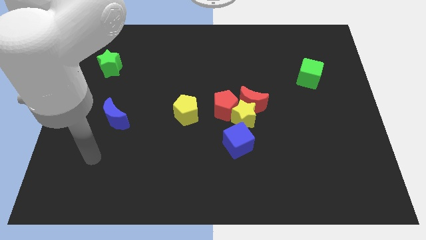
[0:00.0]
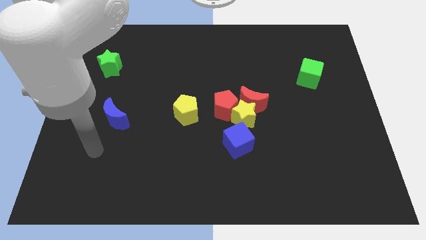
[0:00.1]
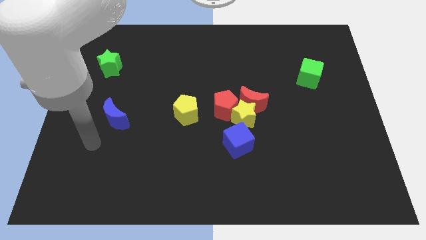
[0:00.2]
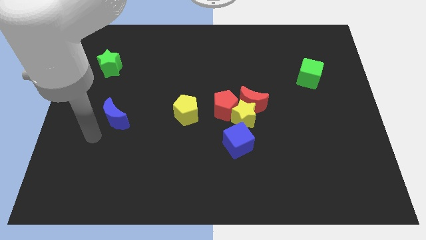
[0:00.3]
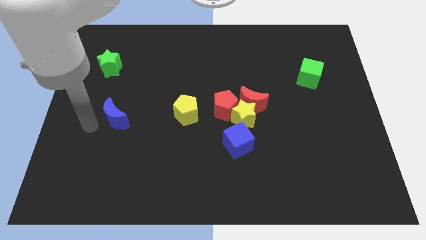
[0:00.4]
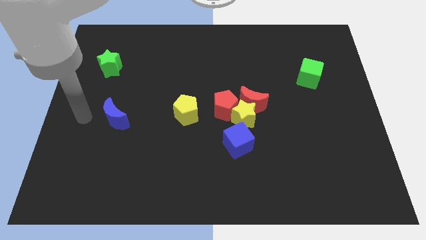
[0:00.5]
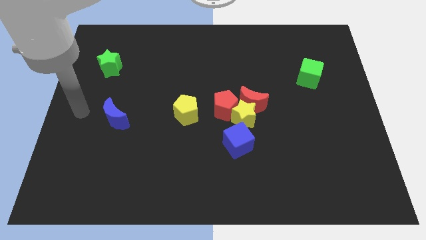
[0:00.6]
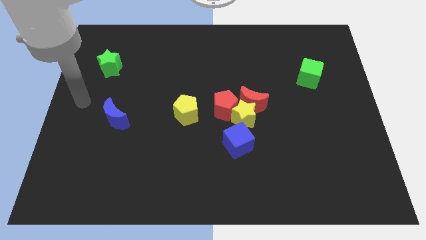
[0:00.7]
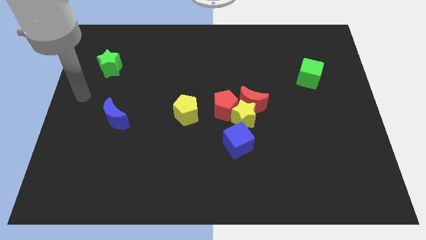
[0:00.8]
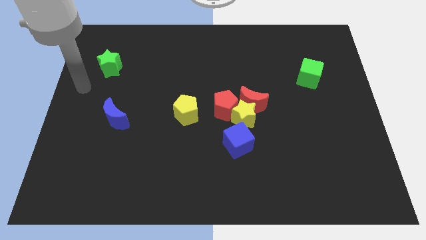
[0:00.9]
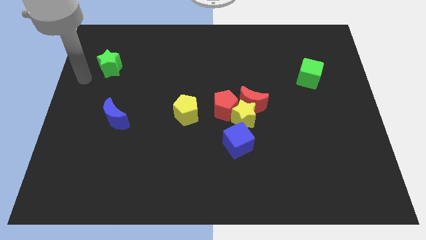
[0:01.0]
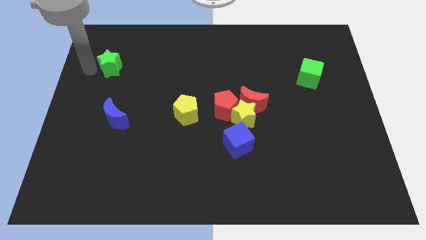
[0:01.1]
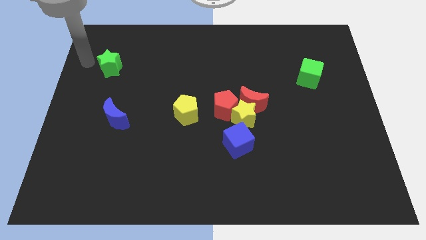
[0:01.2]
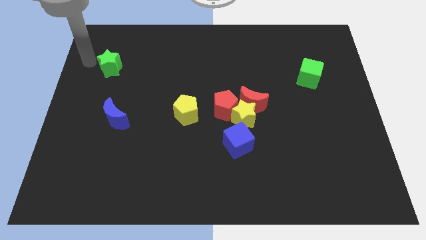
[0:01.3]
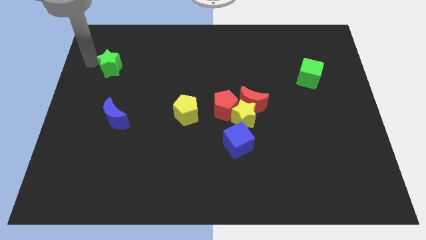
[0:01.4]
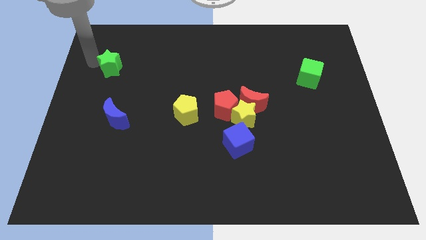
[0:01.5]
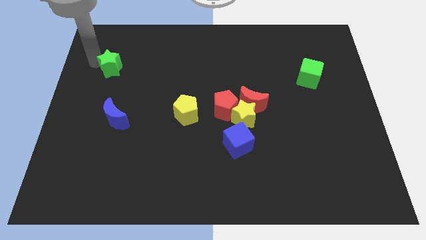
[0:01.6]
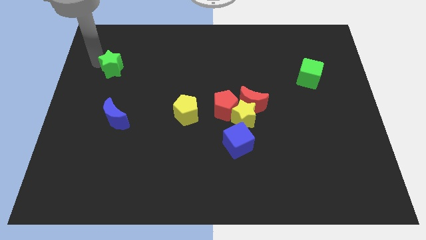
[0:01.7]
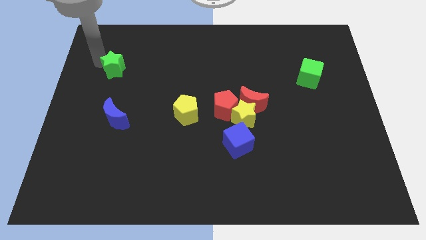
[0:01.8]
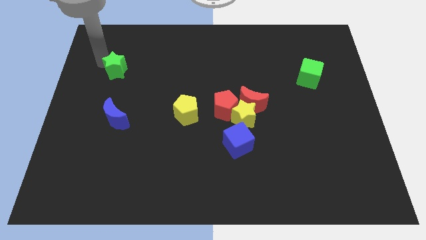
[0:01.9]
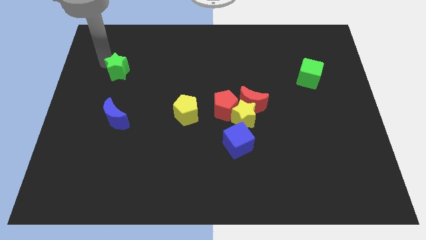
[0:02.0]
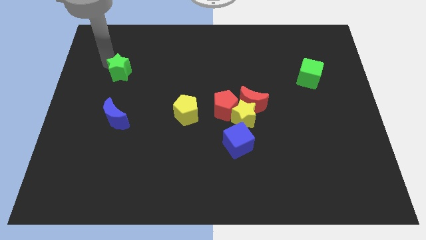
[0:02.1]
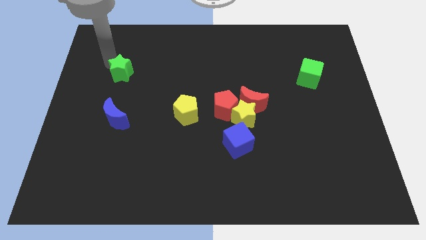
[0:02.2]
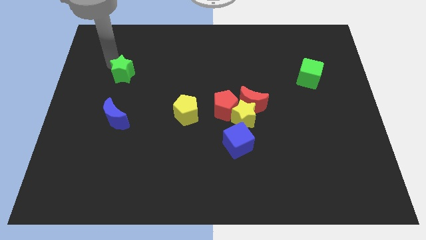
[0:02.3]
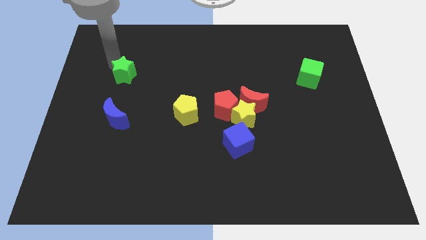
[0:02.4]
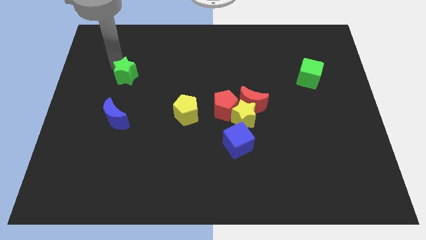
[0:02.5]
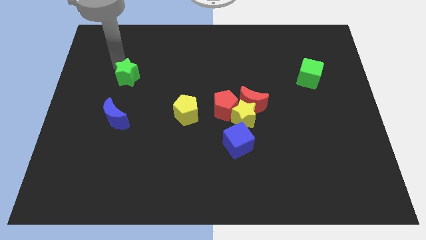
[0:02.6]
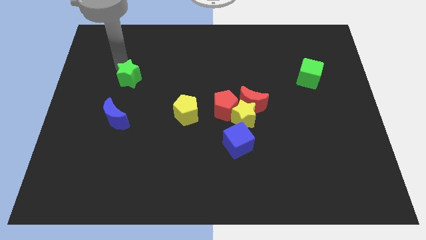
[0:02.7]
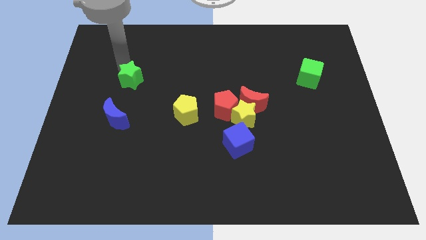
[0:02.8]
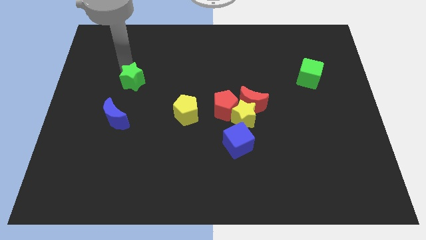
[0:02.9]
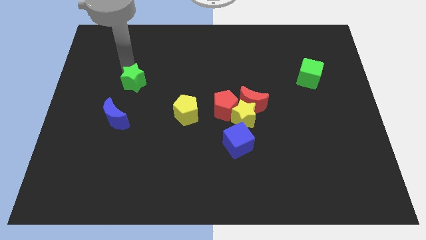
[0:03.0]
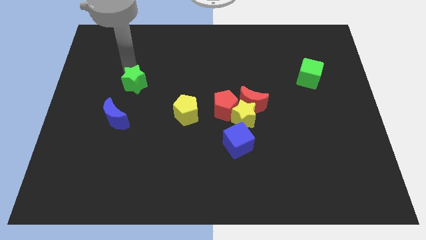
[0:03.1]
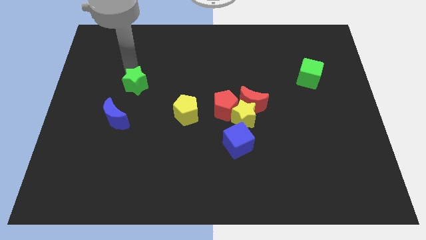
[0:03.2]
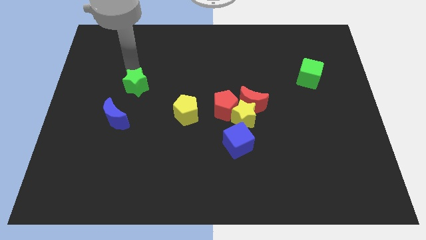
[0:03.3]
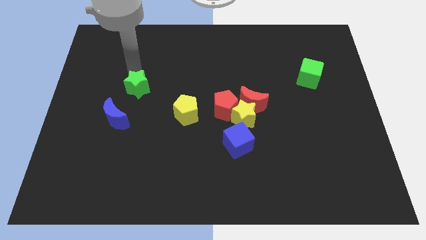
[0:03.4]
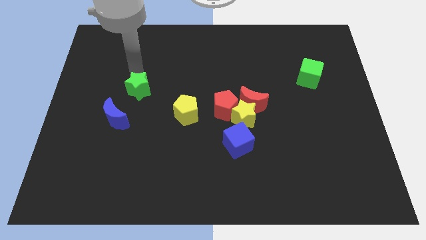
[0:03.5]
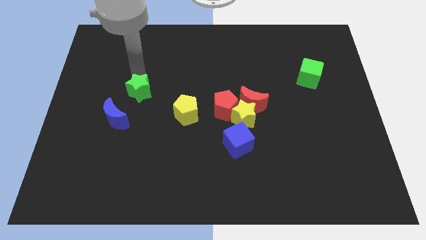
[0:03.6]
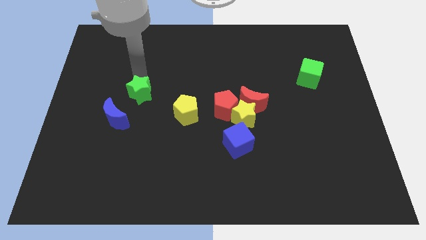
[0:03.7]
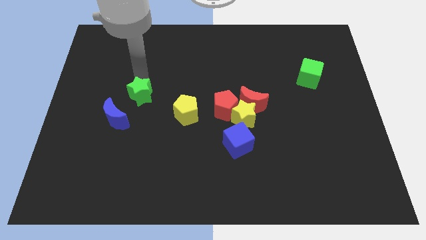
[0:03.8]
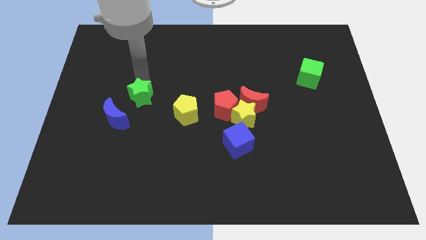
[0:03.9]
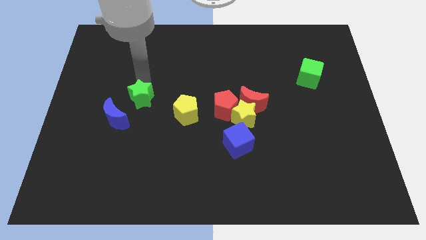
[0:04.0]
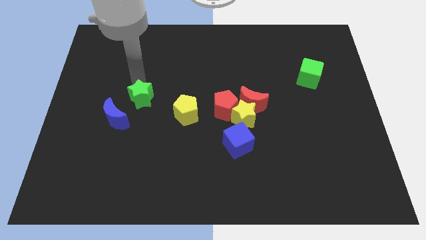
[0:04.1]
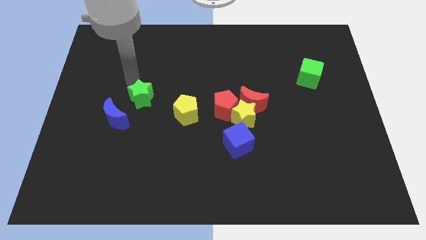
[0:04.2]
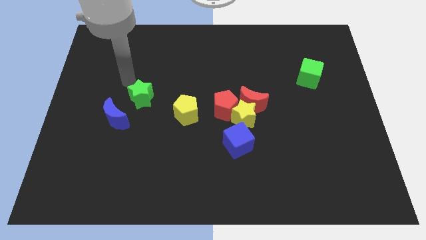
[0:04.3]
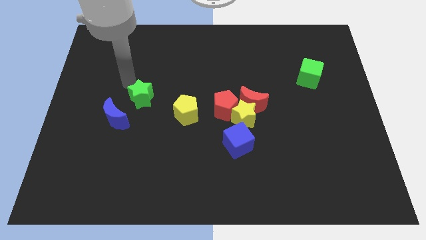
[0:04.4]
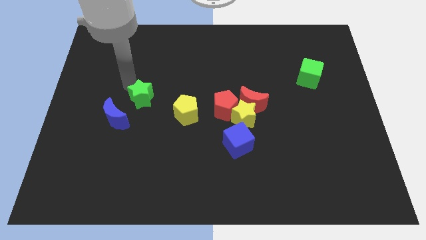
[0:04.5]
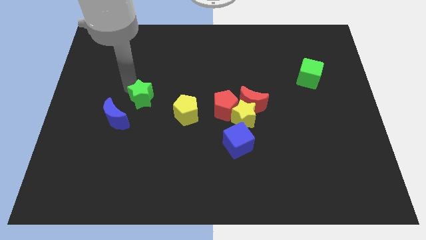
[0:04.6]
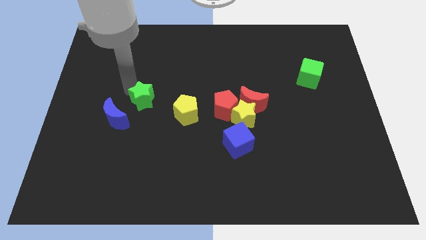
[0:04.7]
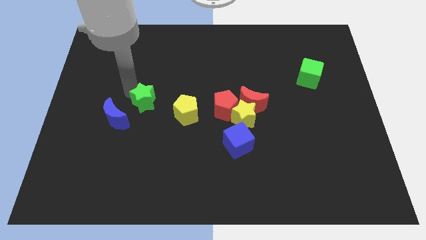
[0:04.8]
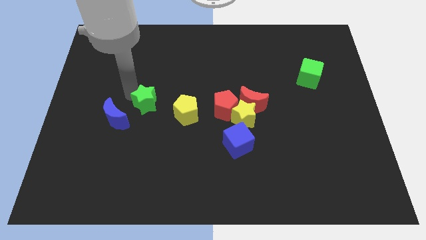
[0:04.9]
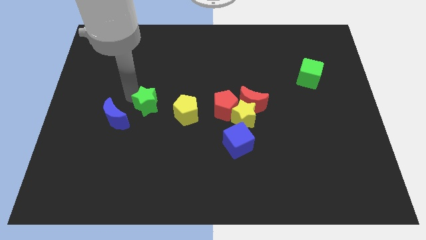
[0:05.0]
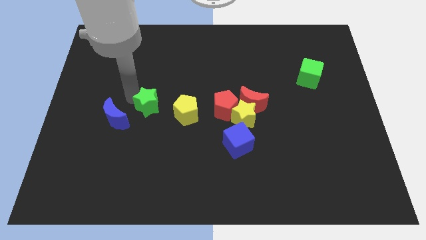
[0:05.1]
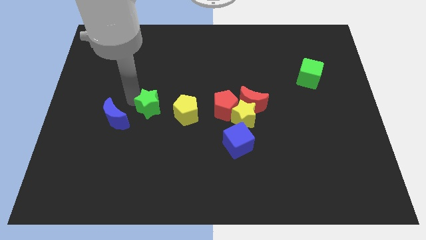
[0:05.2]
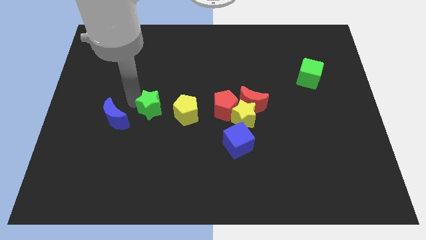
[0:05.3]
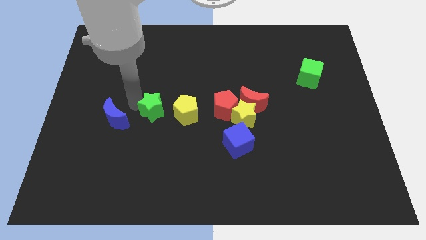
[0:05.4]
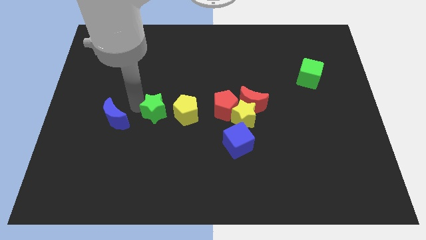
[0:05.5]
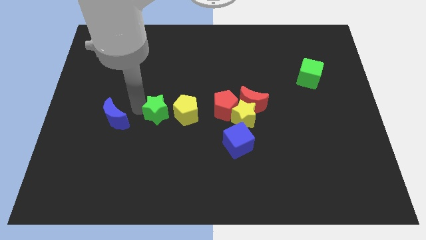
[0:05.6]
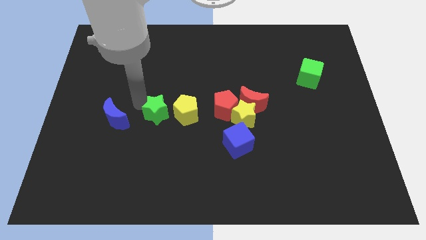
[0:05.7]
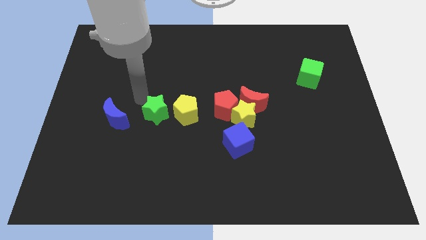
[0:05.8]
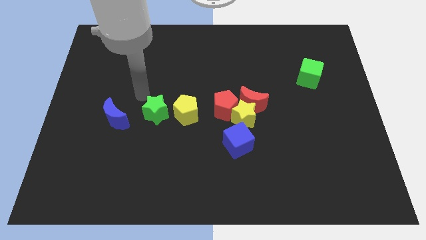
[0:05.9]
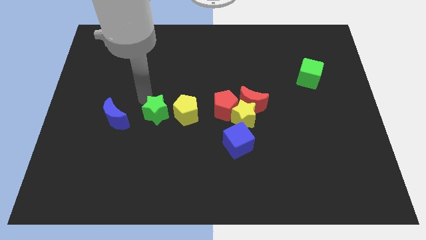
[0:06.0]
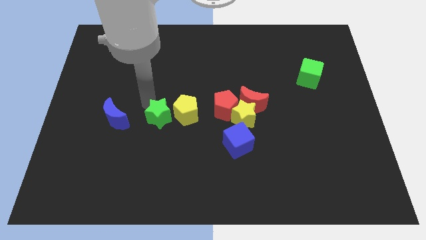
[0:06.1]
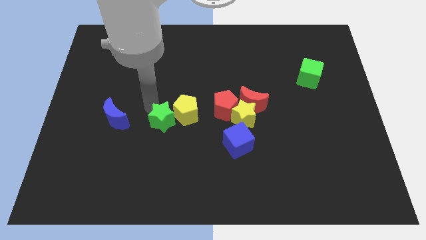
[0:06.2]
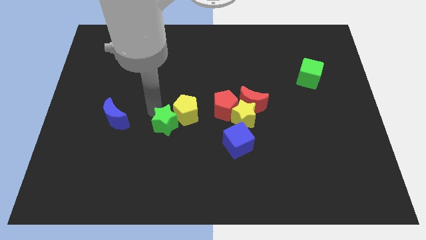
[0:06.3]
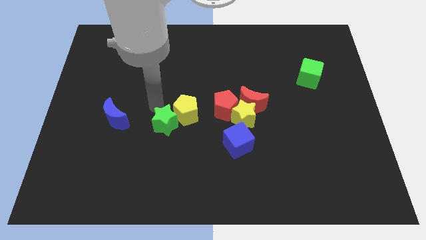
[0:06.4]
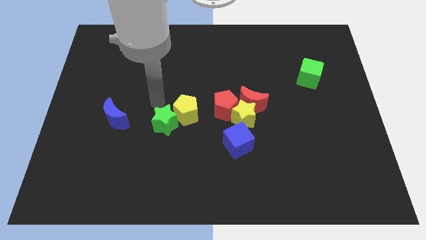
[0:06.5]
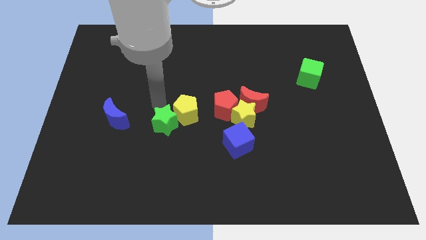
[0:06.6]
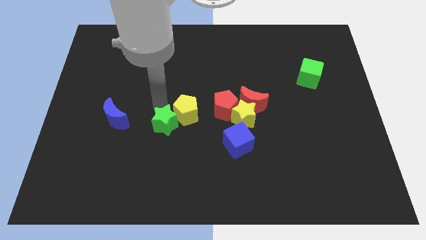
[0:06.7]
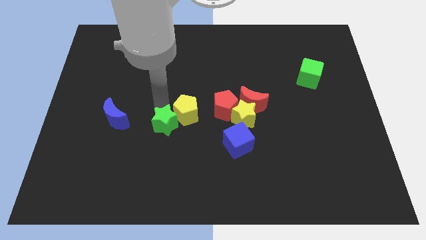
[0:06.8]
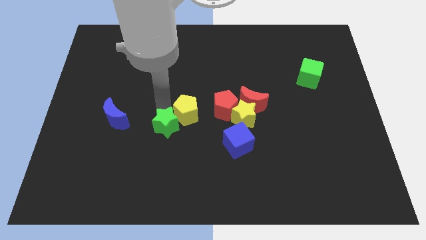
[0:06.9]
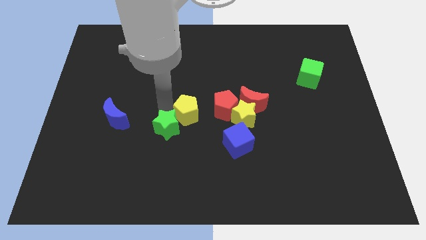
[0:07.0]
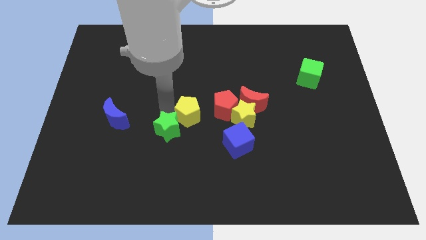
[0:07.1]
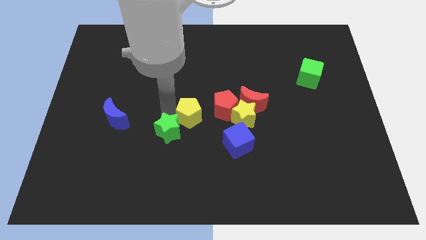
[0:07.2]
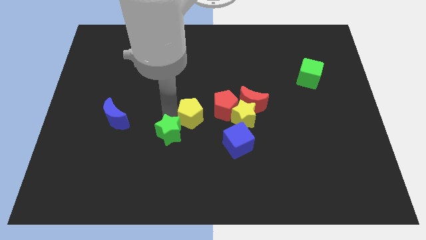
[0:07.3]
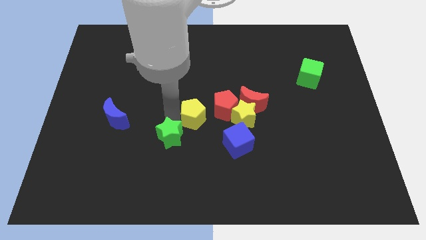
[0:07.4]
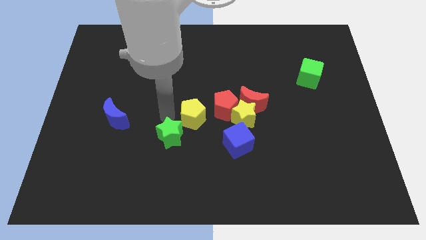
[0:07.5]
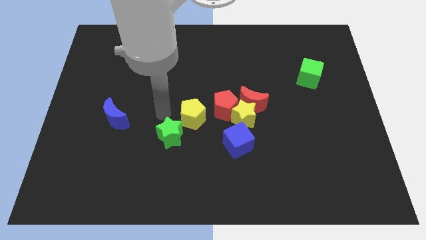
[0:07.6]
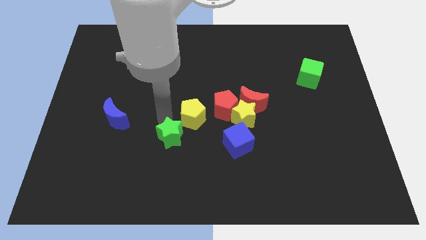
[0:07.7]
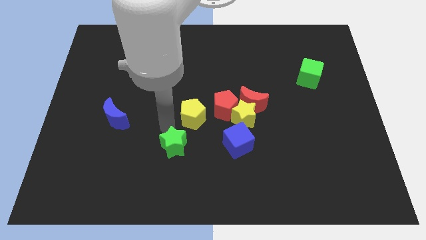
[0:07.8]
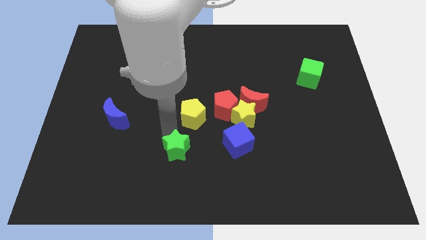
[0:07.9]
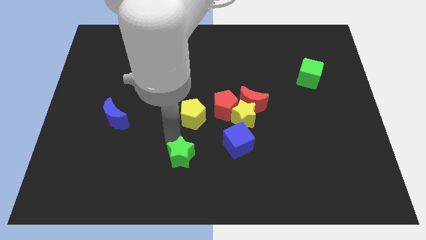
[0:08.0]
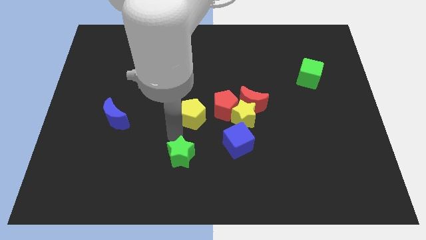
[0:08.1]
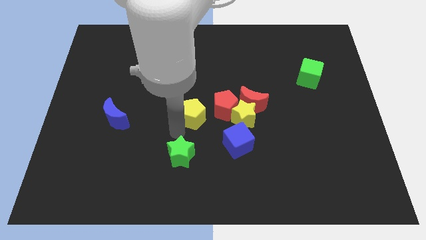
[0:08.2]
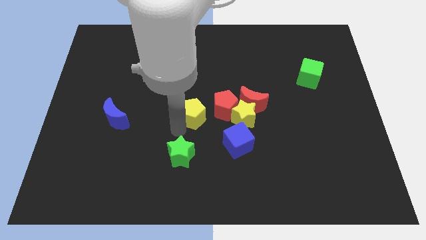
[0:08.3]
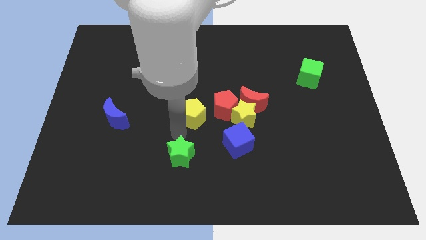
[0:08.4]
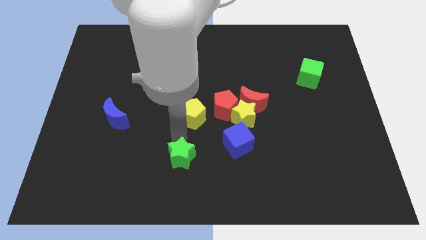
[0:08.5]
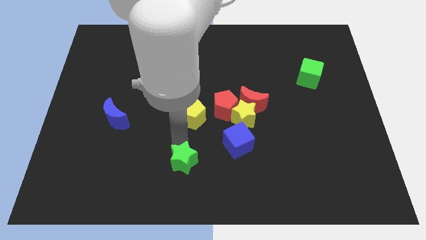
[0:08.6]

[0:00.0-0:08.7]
put the green star to the bottom side
